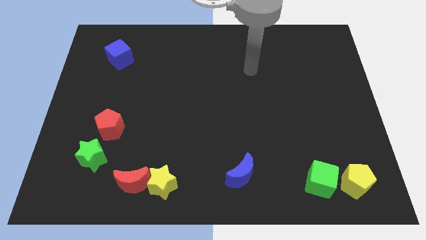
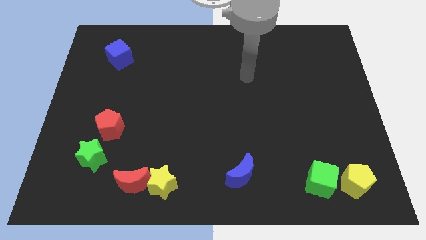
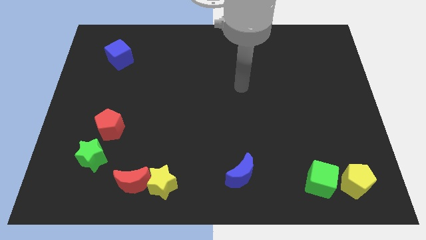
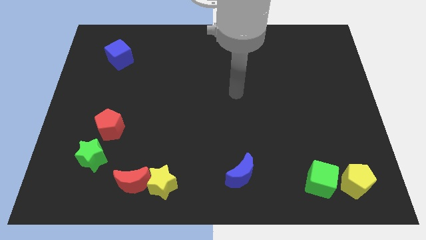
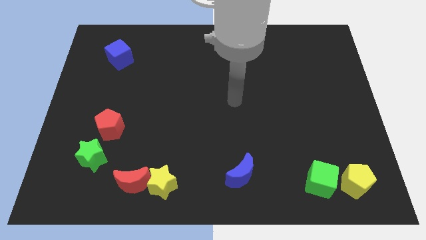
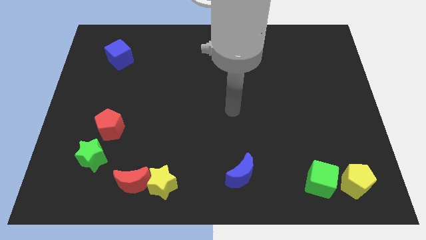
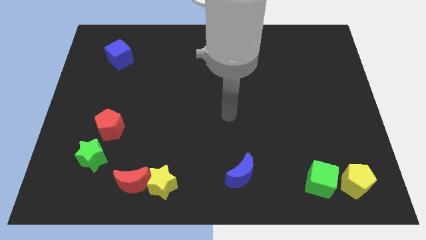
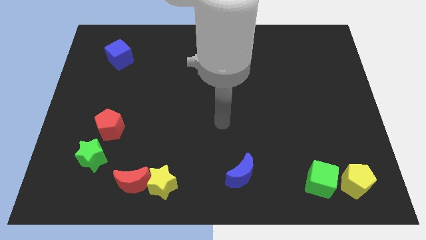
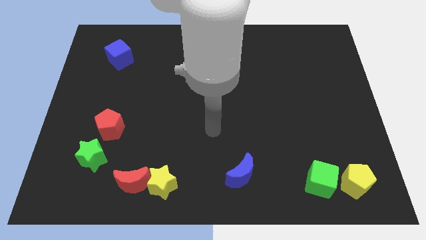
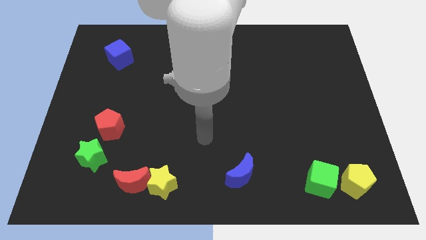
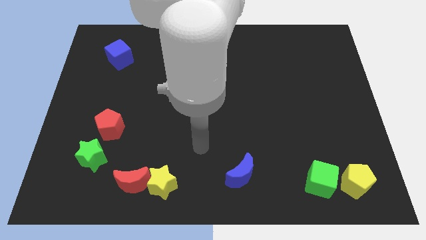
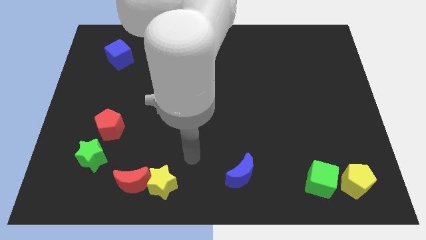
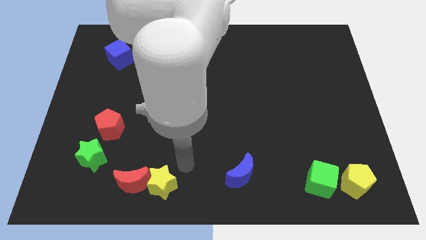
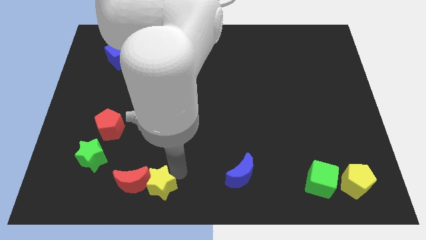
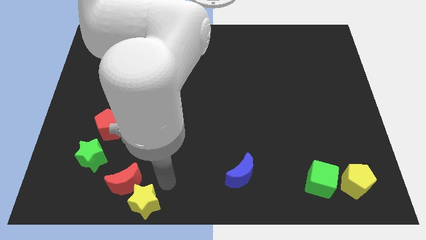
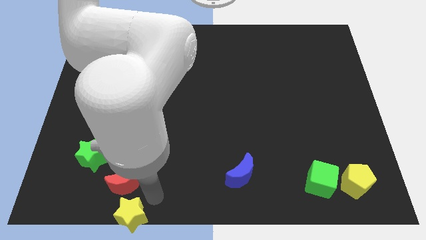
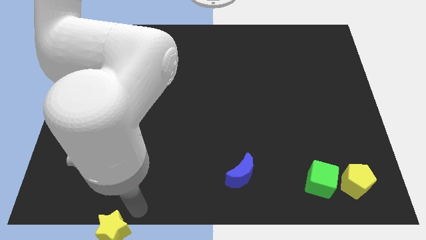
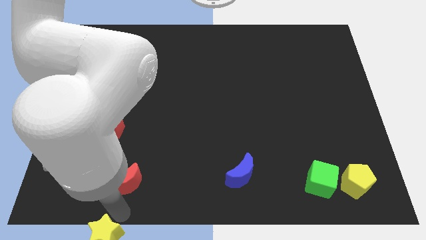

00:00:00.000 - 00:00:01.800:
move the red moon away from the yellow star

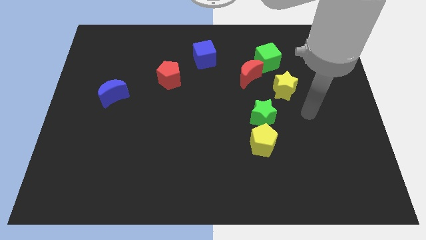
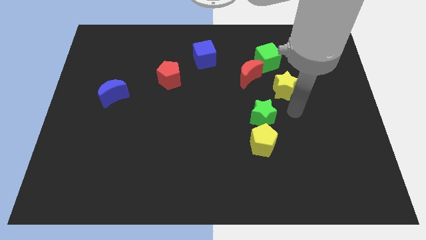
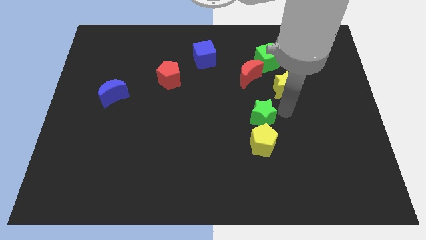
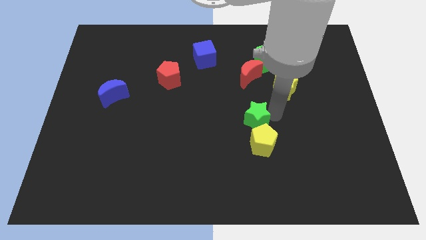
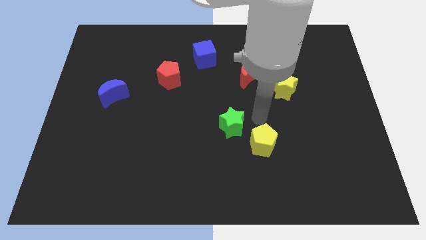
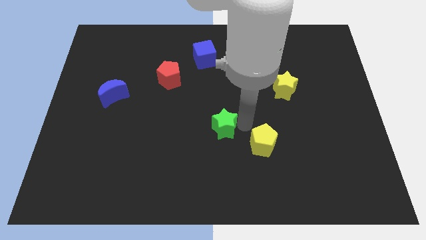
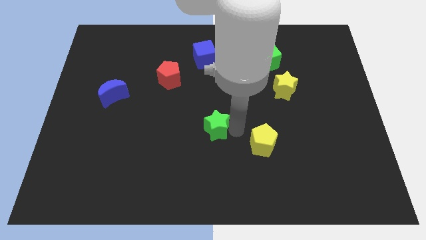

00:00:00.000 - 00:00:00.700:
separate the yellow pentagon from the green star

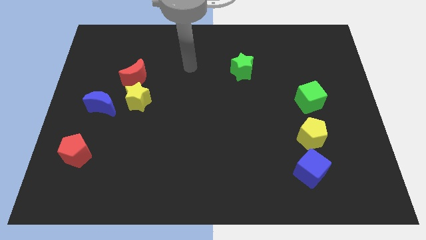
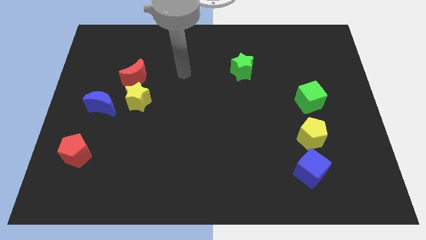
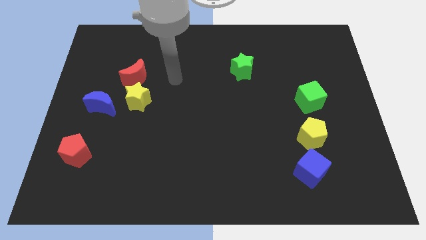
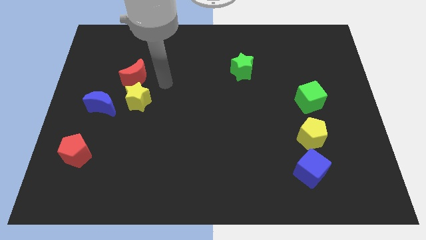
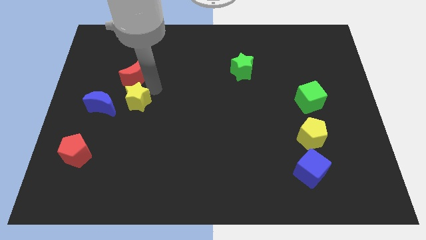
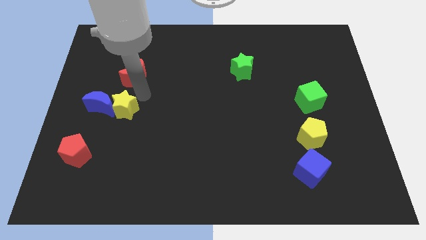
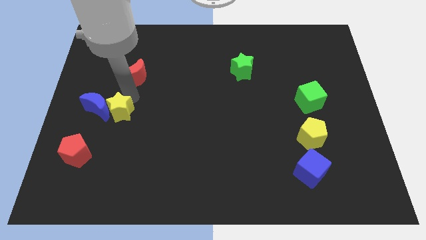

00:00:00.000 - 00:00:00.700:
separate the red moon from the yellow star

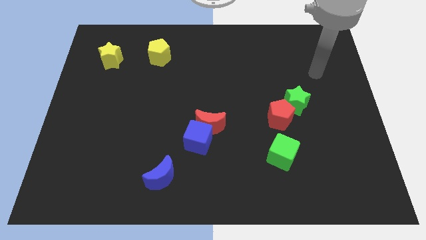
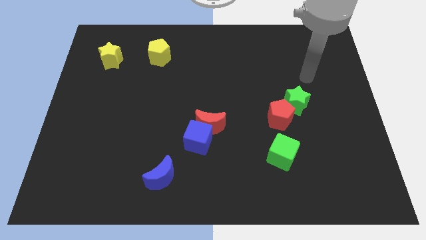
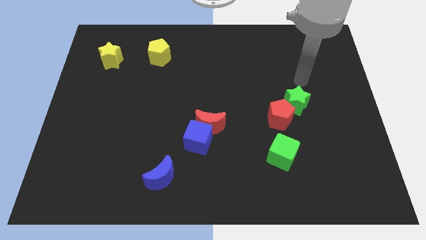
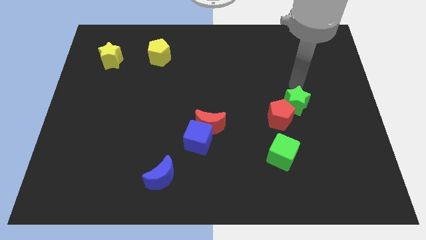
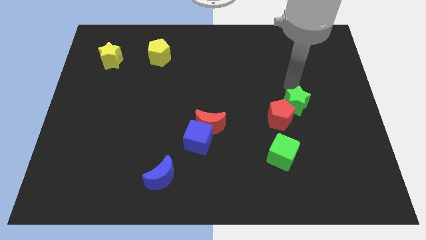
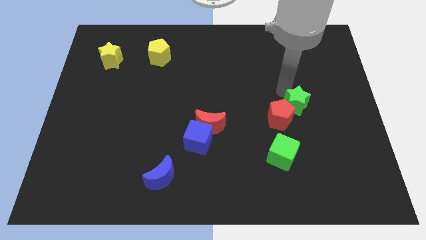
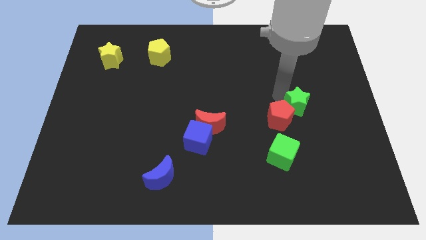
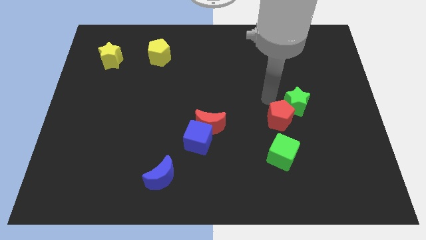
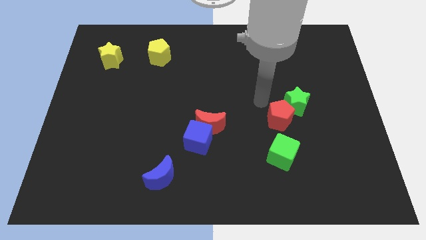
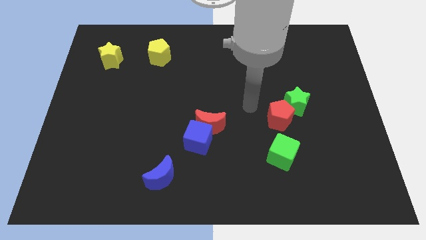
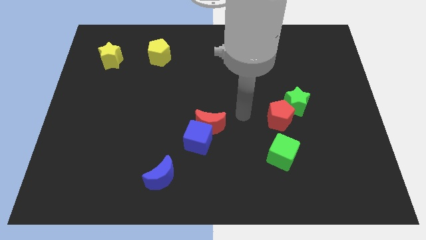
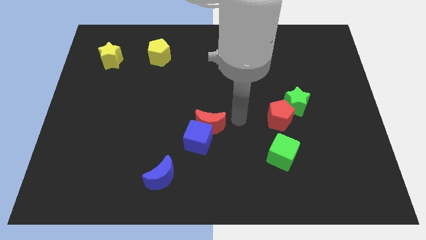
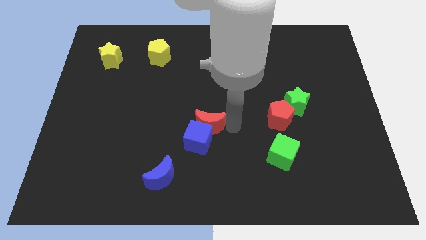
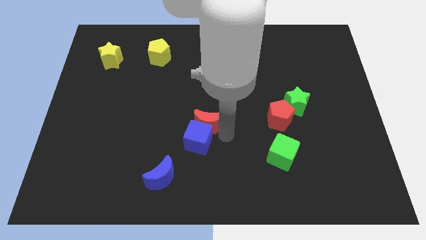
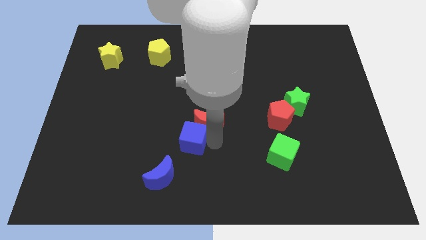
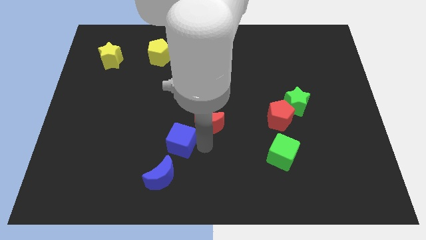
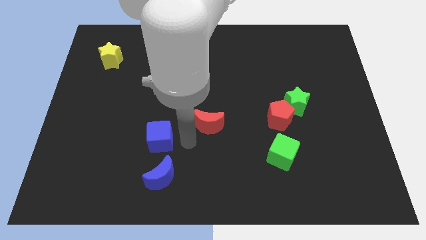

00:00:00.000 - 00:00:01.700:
pull the red moon apart from the blue cube

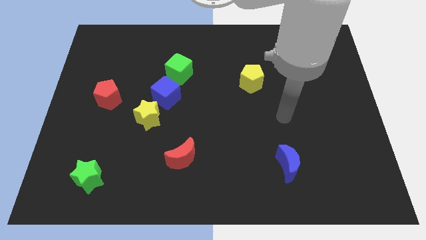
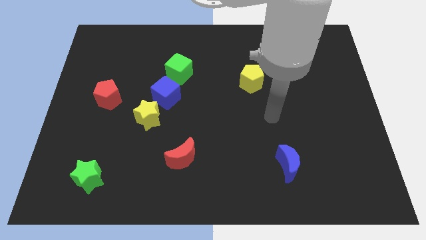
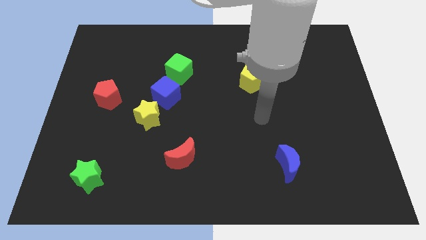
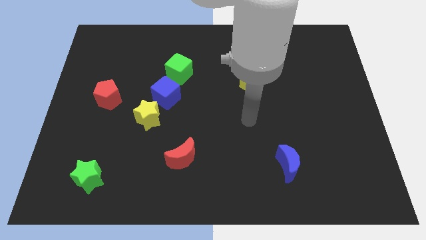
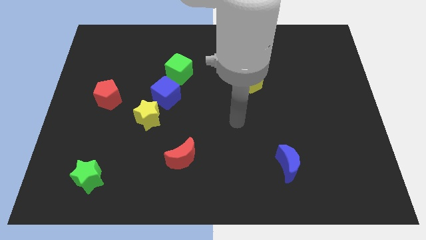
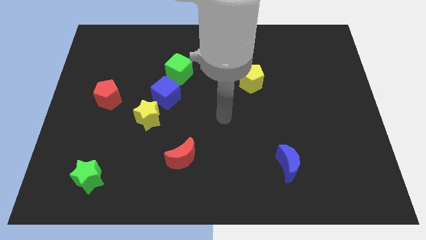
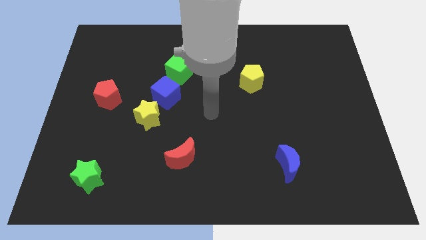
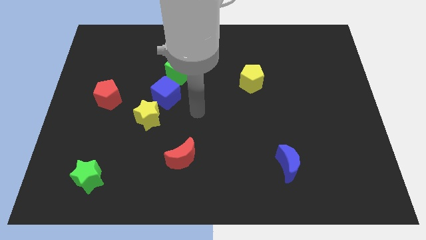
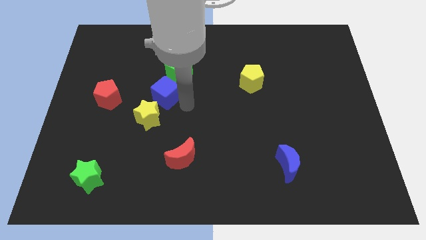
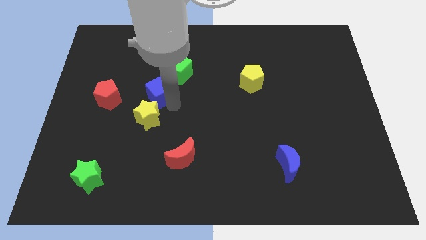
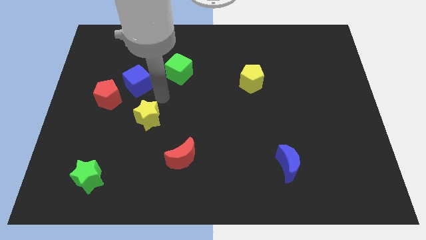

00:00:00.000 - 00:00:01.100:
move the yellow star away from the blue cube

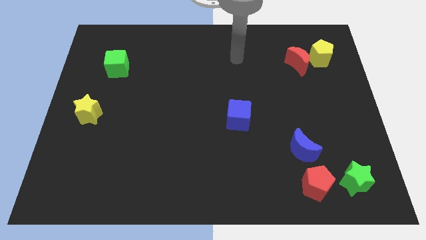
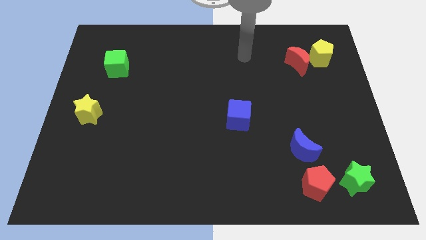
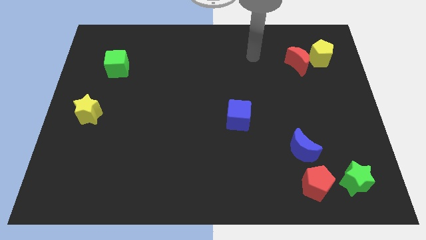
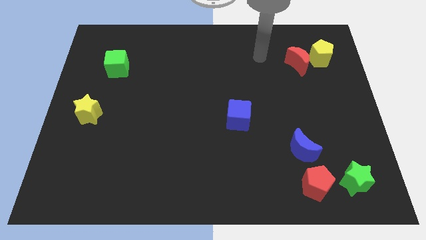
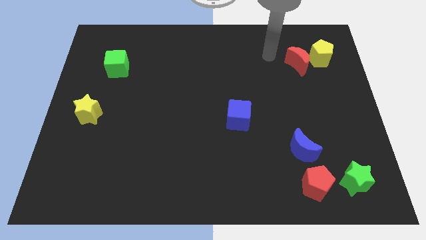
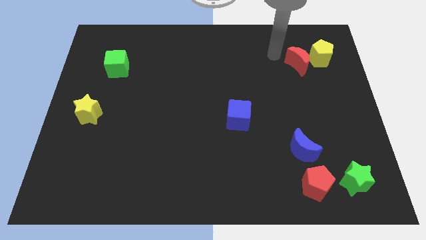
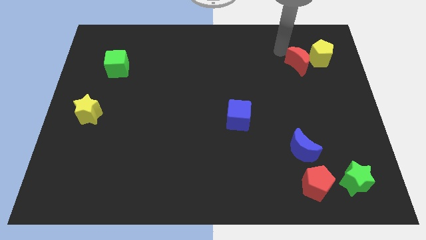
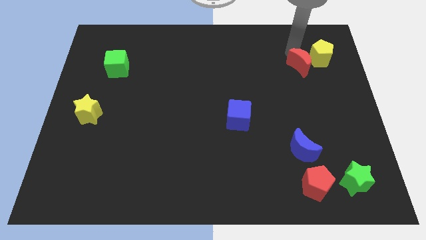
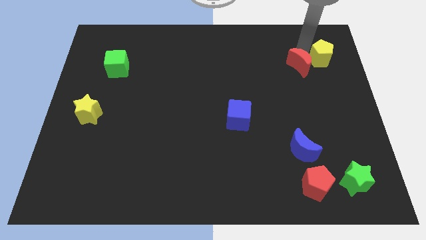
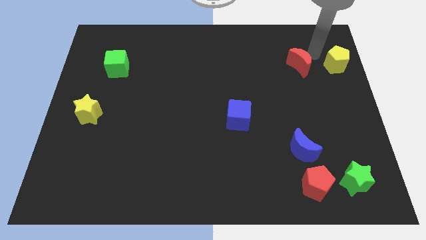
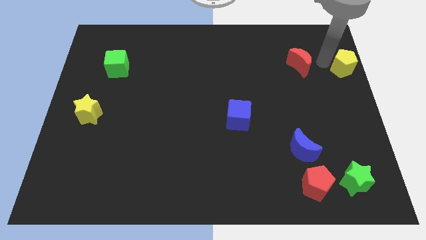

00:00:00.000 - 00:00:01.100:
separate the red moon from the yellow pentagon

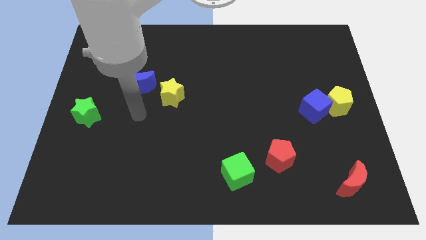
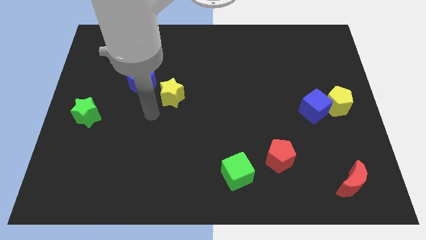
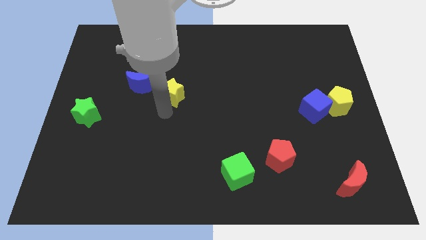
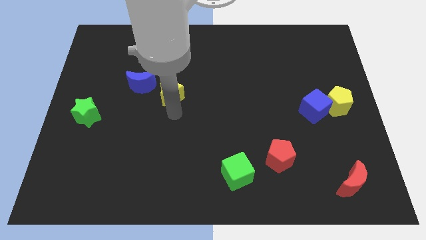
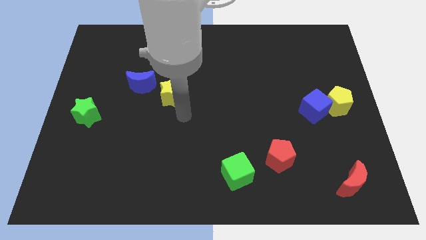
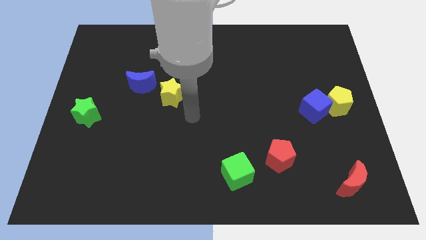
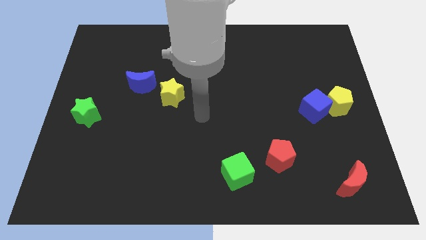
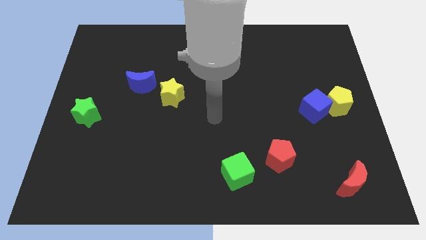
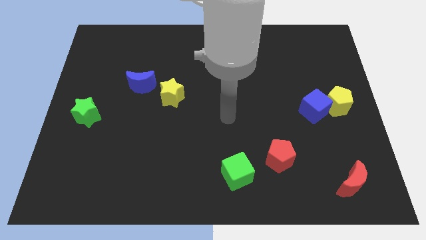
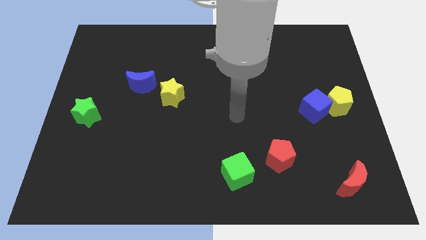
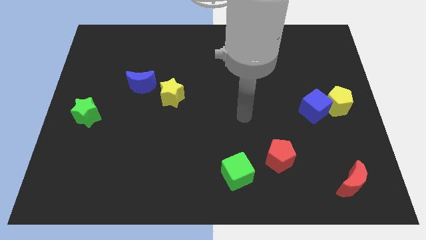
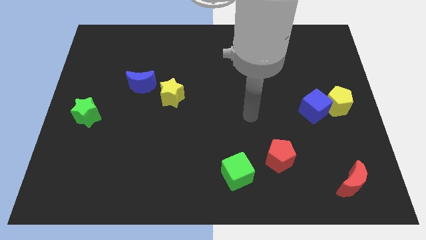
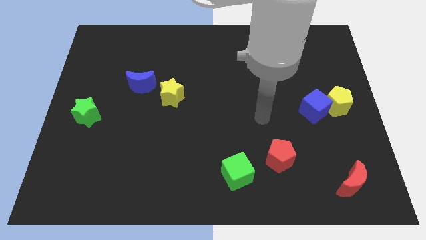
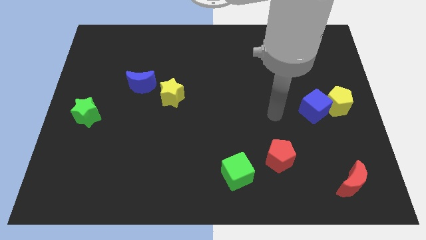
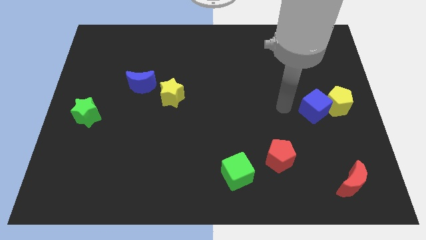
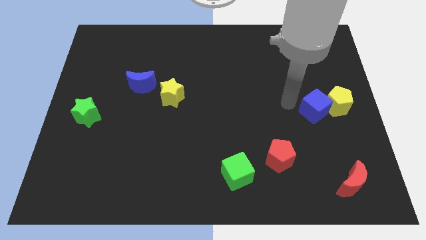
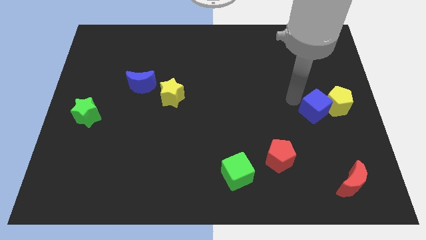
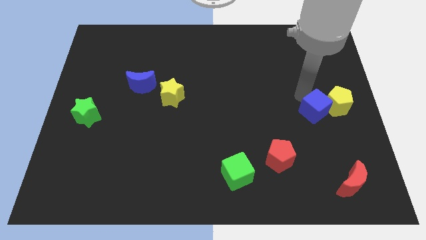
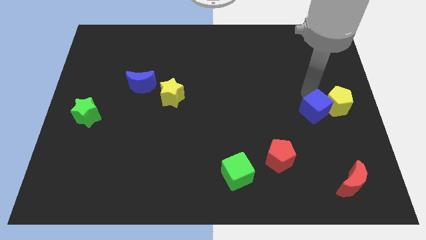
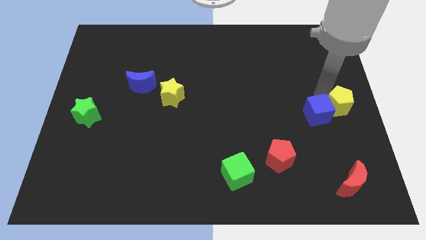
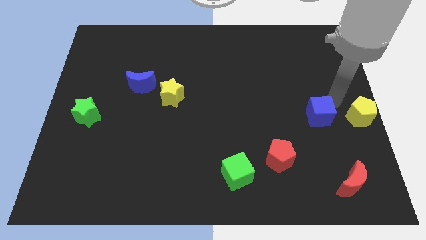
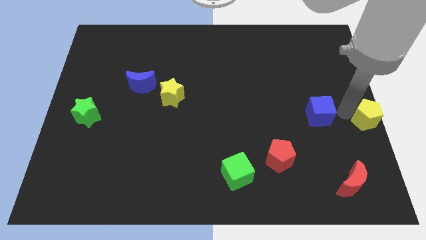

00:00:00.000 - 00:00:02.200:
separate the blue cube from the yellow pentagon

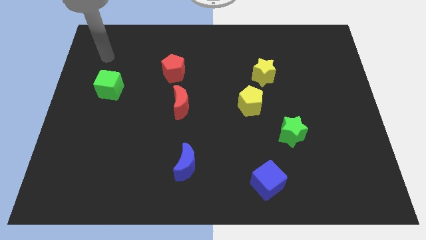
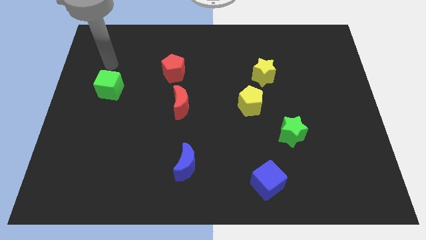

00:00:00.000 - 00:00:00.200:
separate the yellow star from the yellow pentagon
